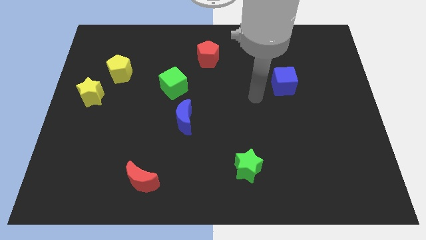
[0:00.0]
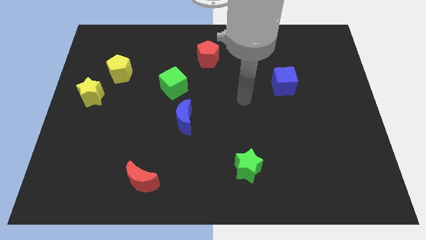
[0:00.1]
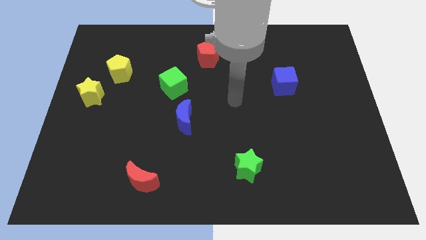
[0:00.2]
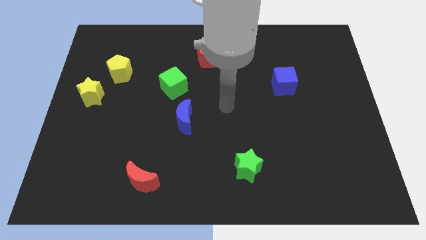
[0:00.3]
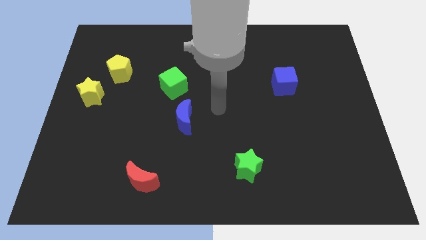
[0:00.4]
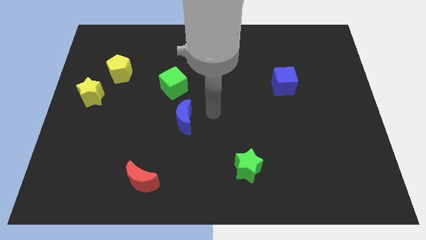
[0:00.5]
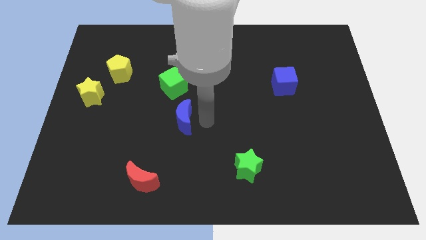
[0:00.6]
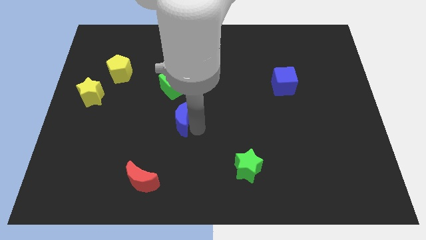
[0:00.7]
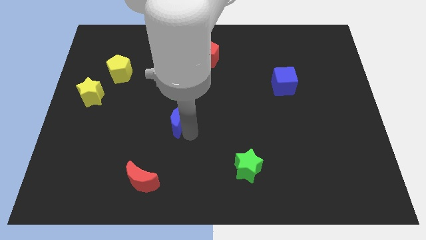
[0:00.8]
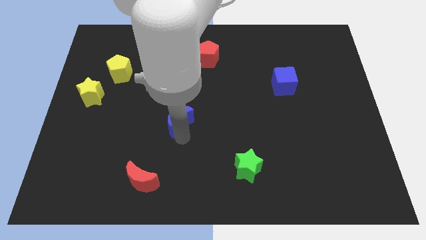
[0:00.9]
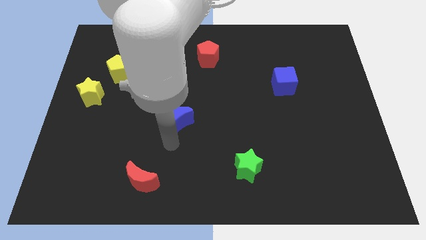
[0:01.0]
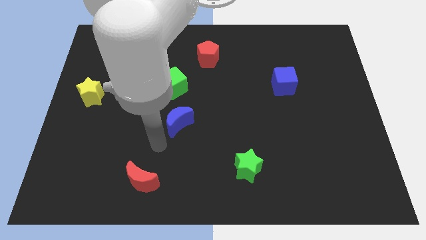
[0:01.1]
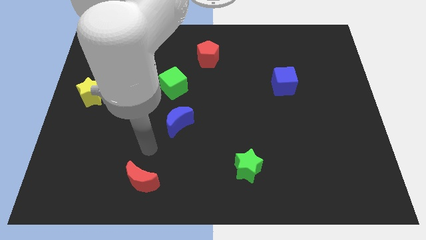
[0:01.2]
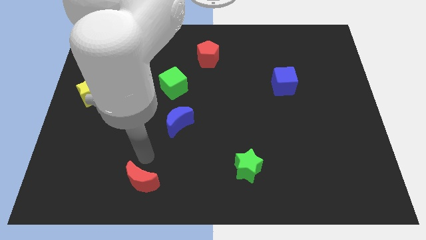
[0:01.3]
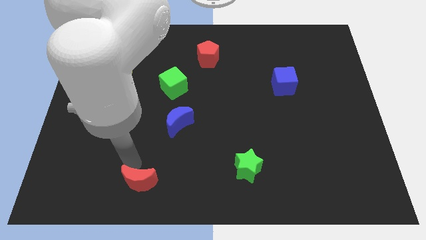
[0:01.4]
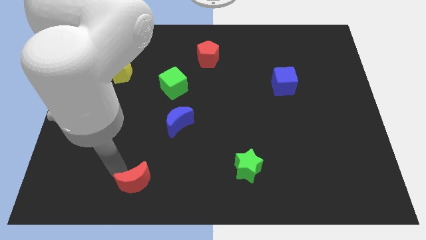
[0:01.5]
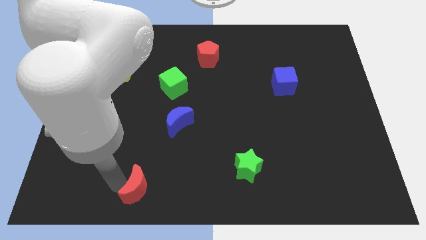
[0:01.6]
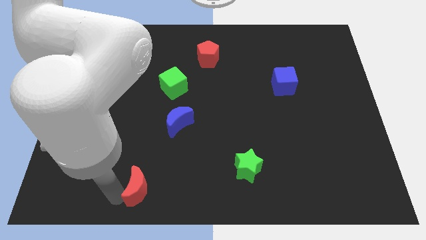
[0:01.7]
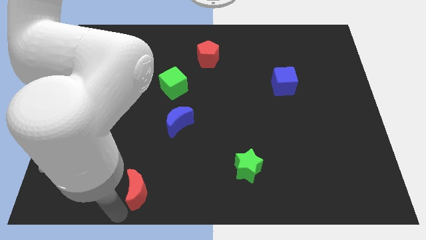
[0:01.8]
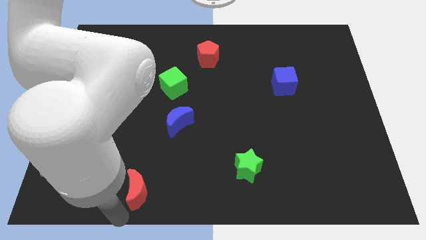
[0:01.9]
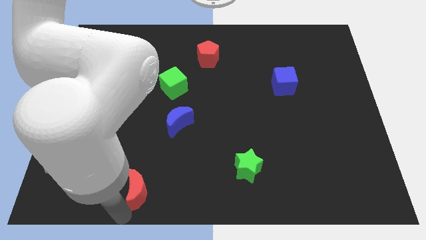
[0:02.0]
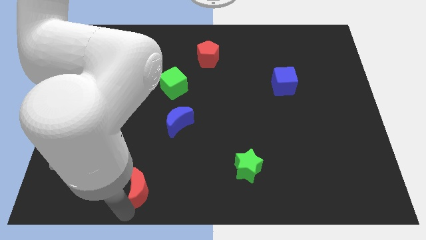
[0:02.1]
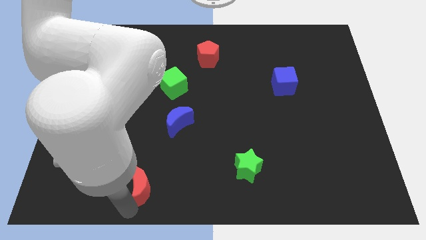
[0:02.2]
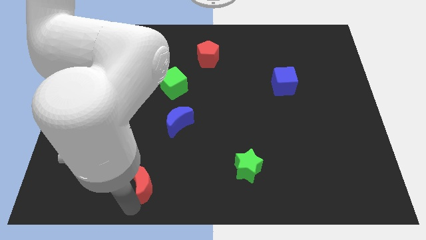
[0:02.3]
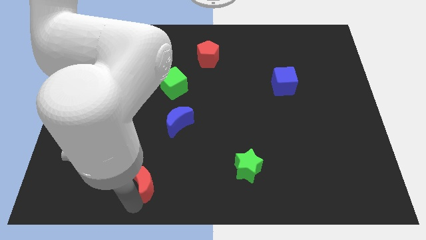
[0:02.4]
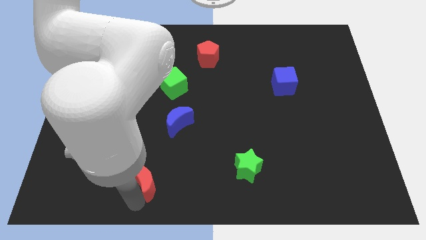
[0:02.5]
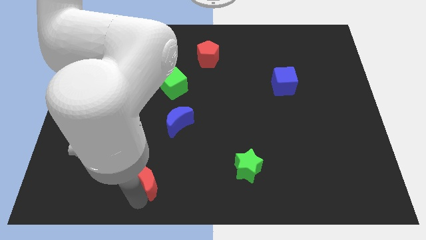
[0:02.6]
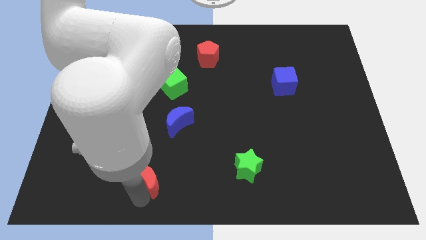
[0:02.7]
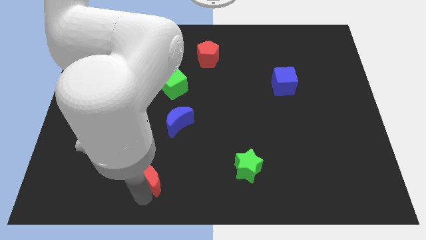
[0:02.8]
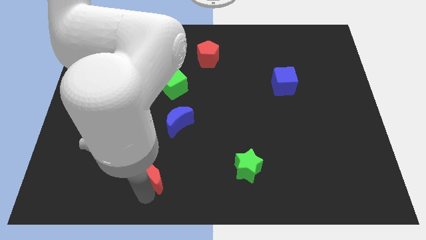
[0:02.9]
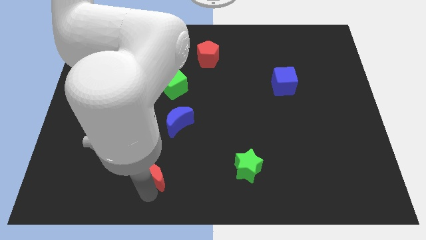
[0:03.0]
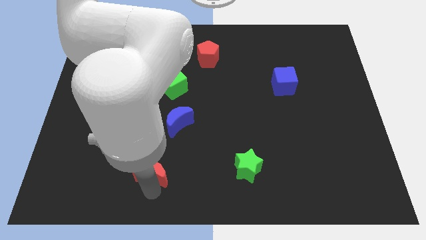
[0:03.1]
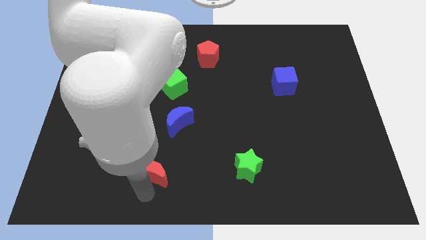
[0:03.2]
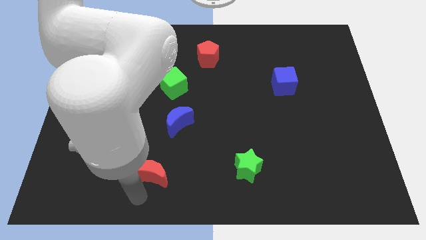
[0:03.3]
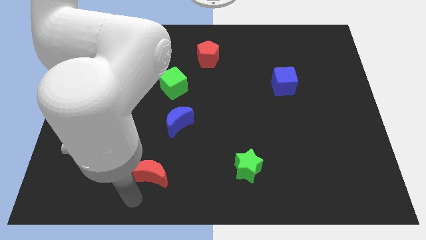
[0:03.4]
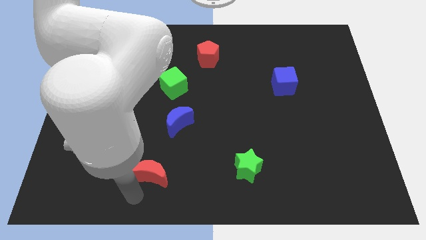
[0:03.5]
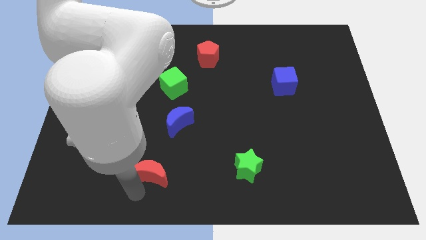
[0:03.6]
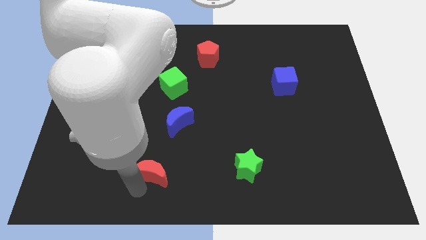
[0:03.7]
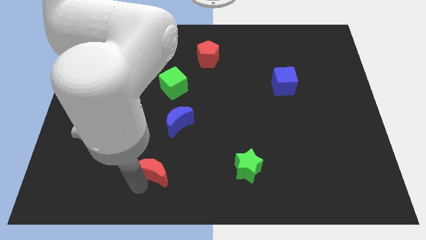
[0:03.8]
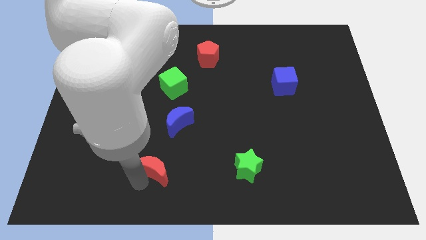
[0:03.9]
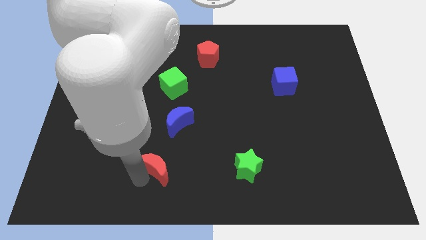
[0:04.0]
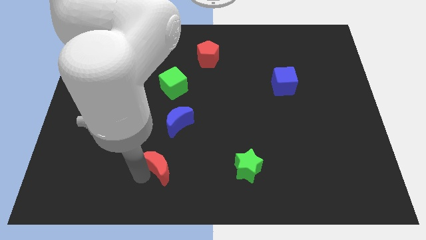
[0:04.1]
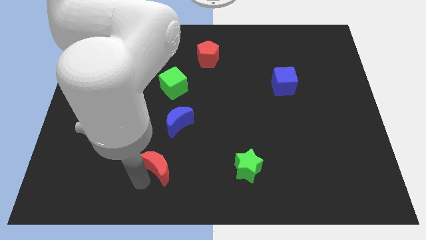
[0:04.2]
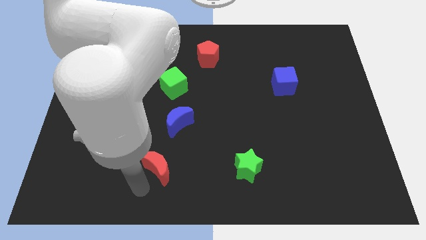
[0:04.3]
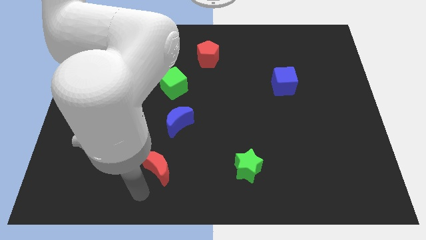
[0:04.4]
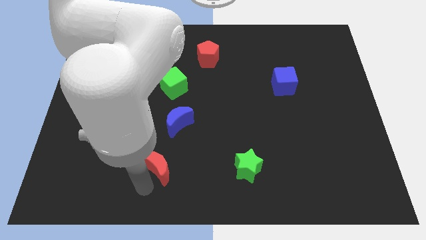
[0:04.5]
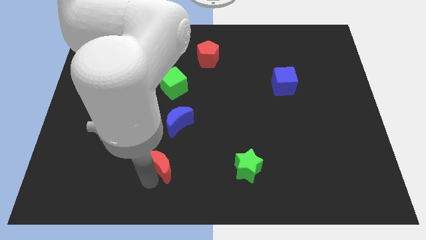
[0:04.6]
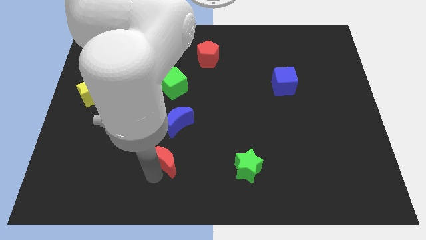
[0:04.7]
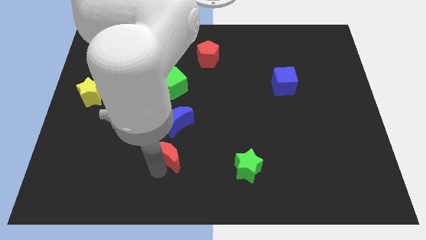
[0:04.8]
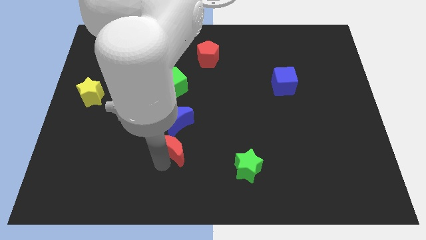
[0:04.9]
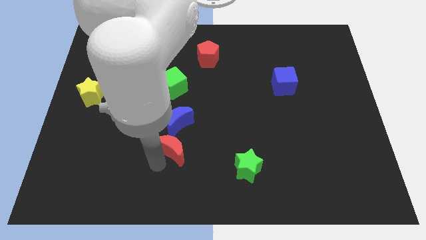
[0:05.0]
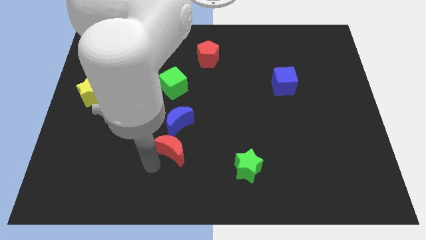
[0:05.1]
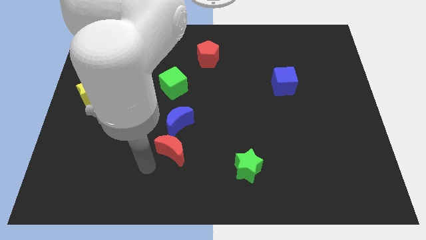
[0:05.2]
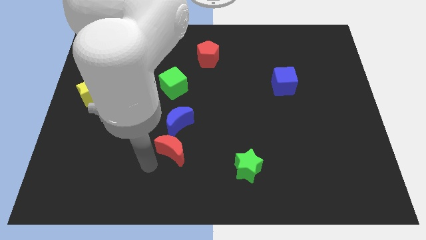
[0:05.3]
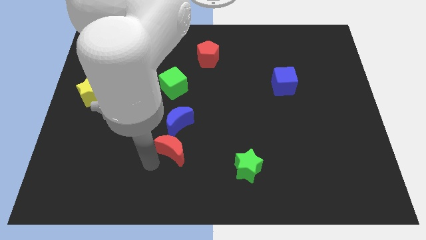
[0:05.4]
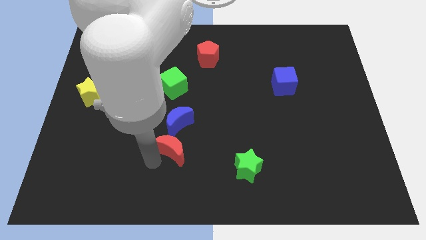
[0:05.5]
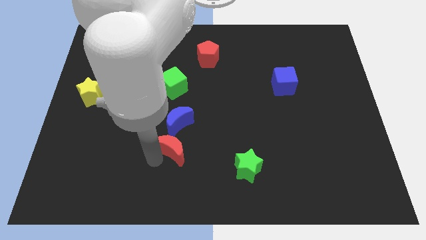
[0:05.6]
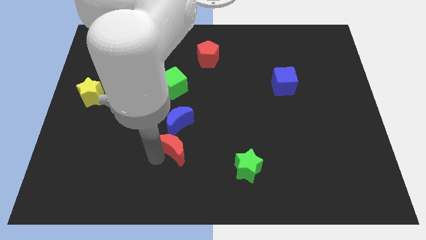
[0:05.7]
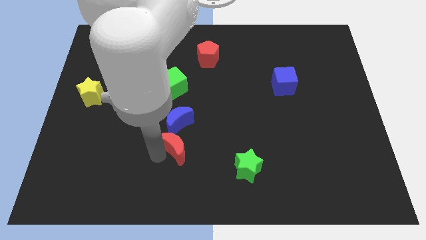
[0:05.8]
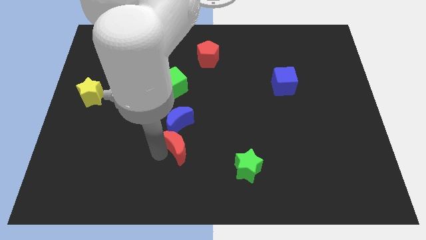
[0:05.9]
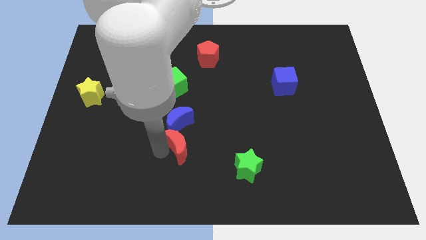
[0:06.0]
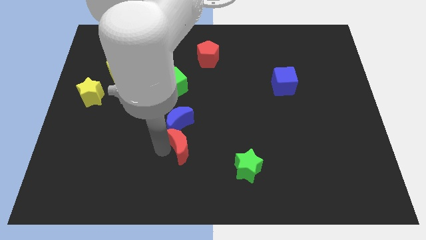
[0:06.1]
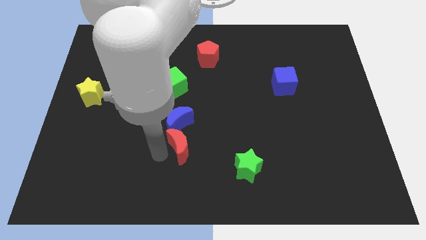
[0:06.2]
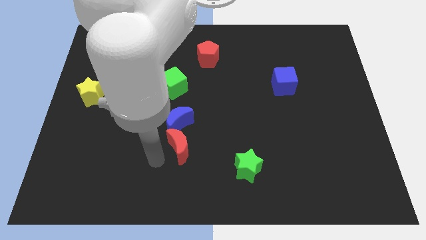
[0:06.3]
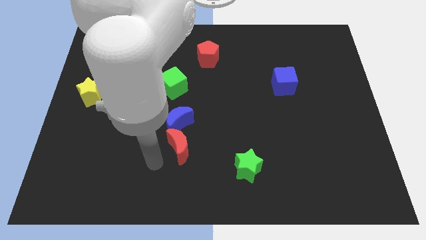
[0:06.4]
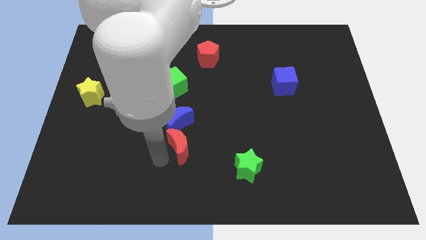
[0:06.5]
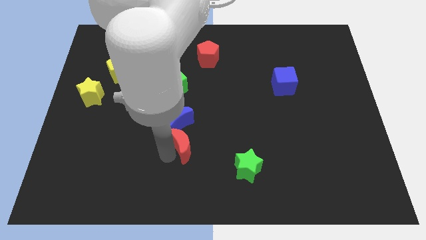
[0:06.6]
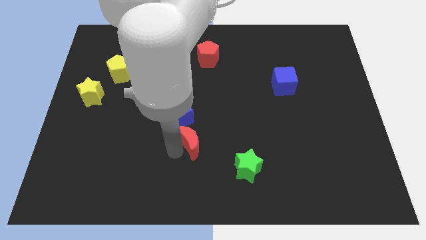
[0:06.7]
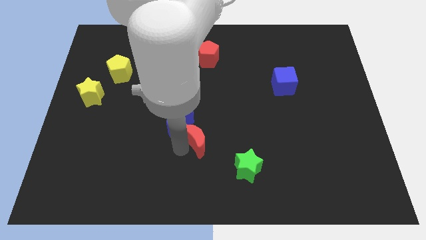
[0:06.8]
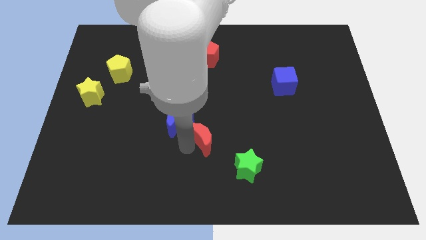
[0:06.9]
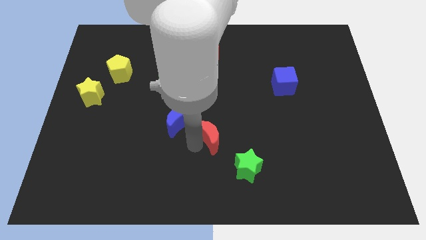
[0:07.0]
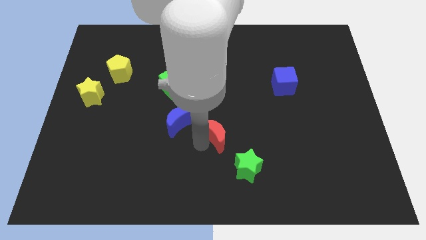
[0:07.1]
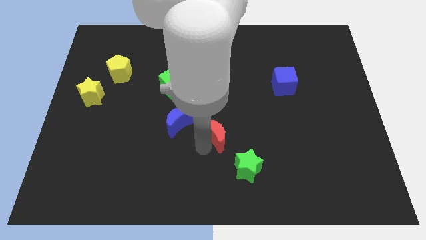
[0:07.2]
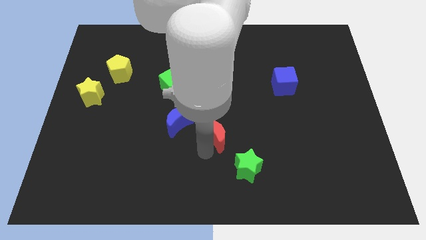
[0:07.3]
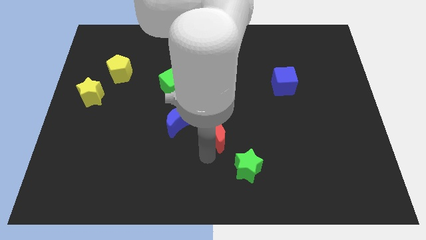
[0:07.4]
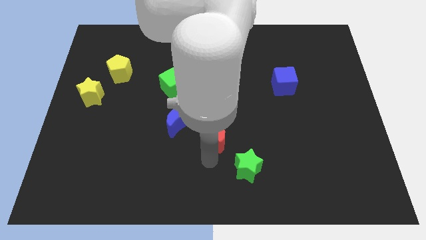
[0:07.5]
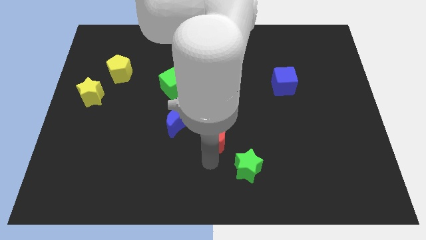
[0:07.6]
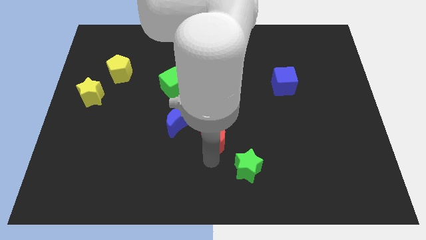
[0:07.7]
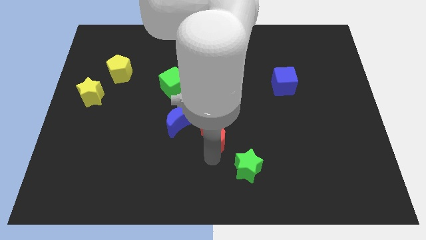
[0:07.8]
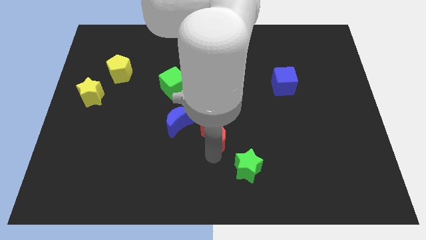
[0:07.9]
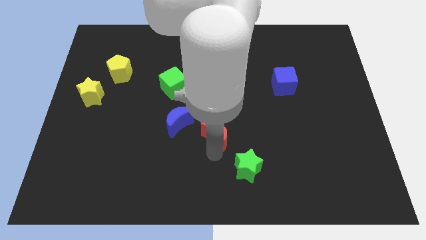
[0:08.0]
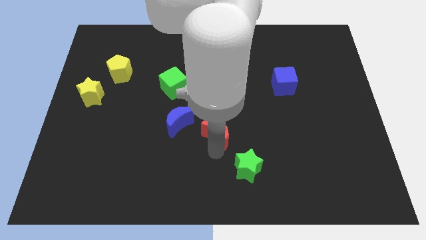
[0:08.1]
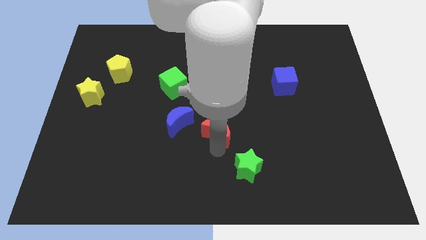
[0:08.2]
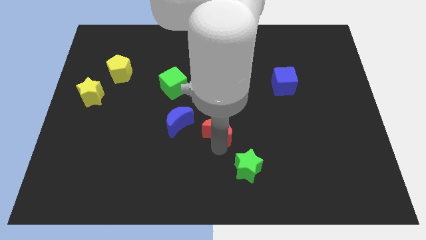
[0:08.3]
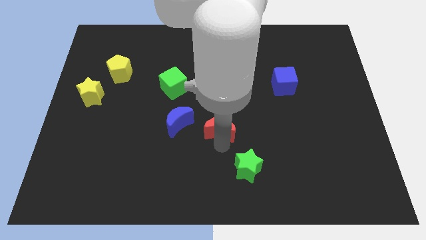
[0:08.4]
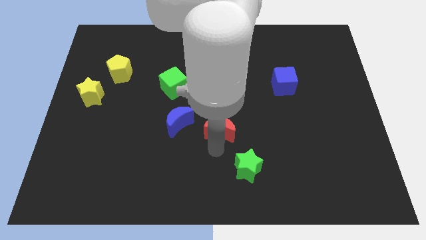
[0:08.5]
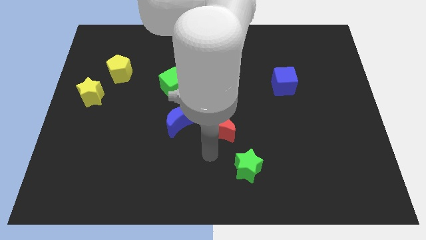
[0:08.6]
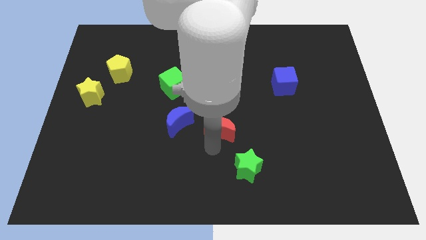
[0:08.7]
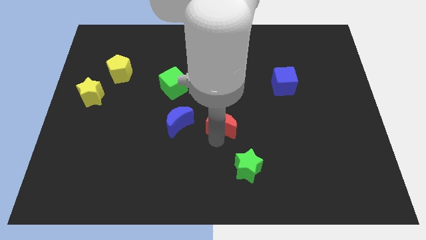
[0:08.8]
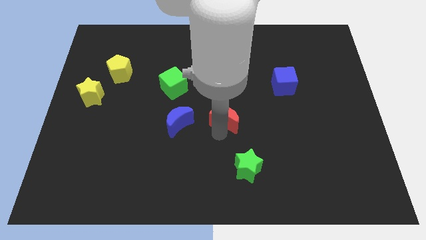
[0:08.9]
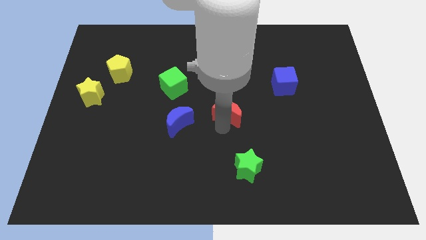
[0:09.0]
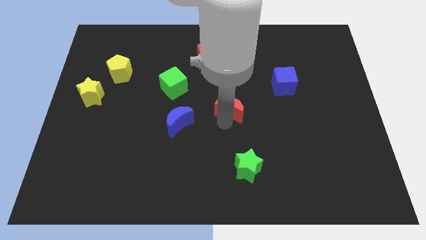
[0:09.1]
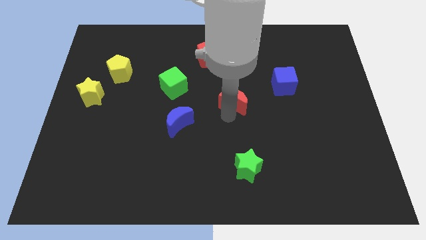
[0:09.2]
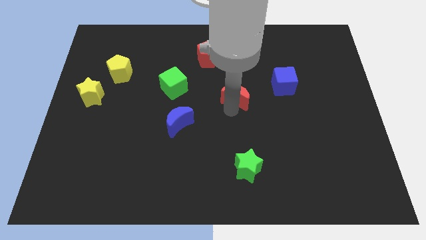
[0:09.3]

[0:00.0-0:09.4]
put the red moon just left of the blue cube
